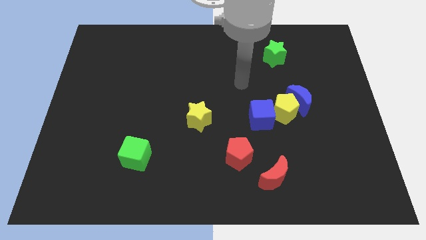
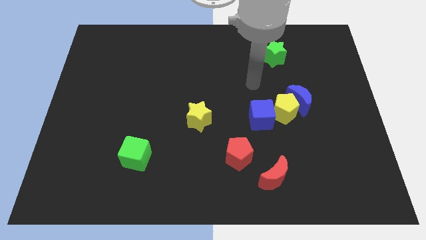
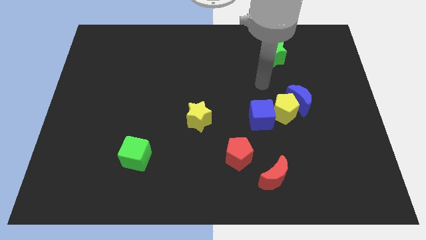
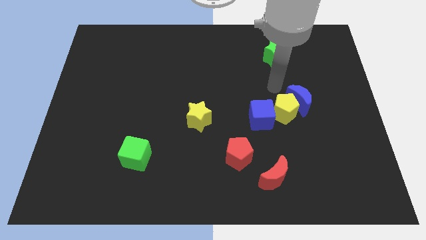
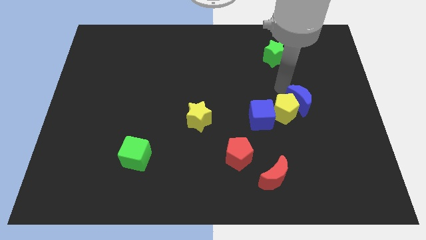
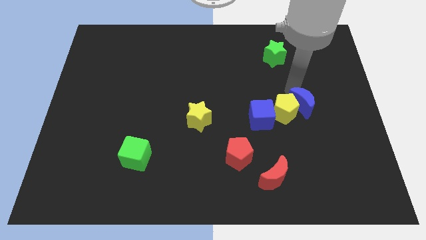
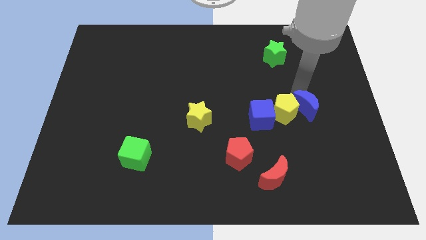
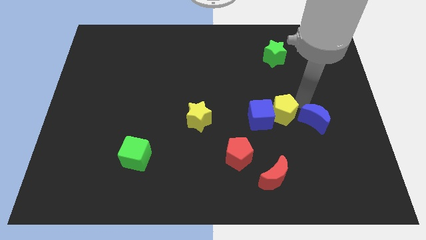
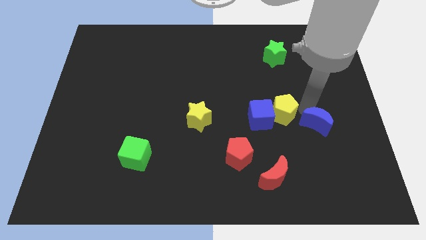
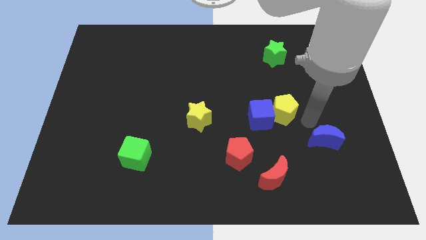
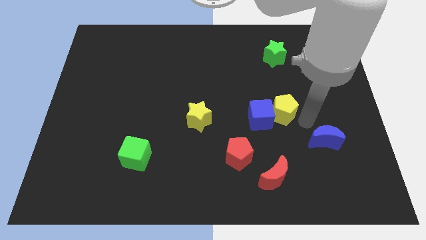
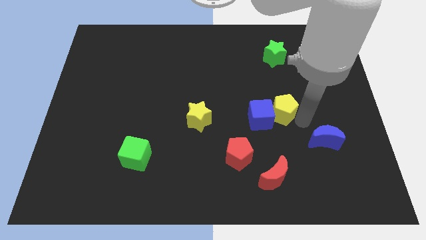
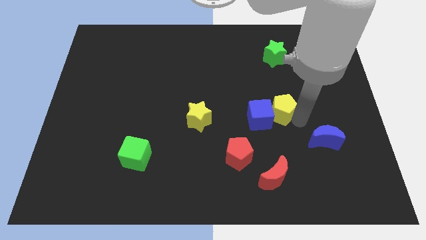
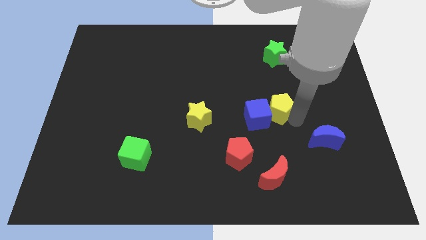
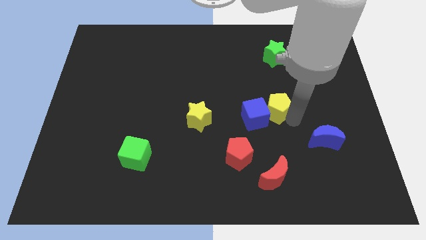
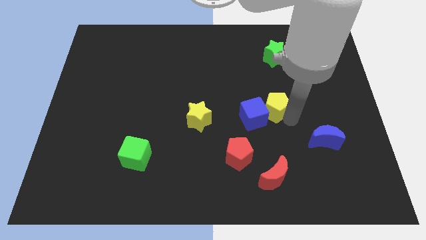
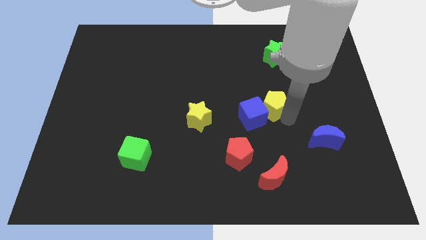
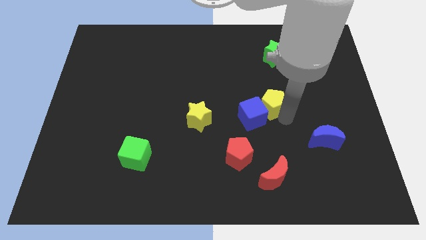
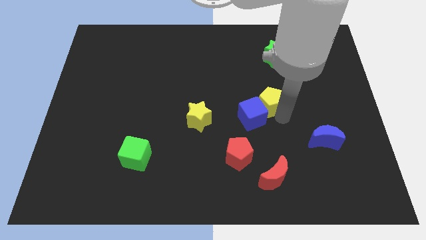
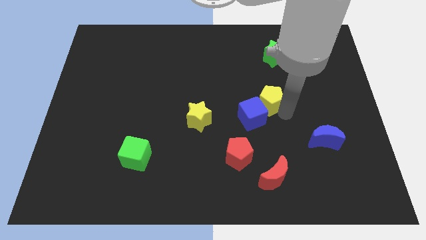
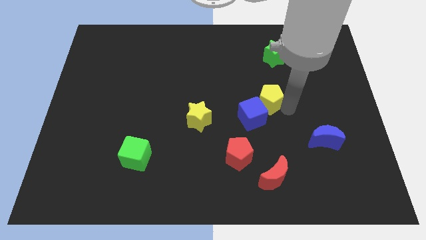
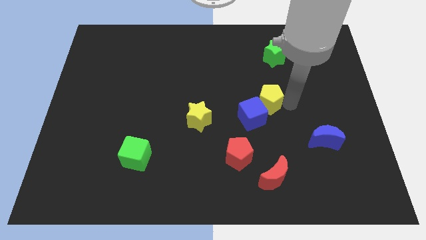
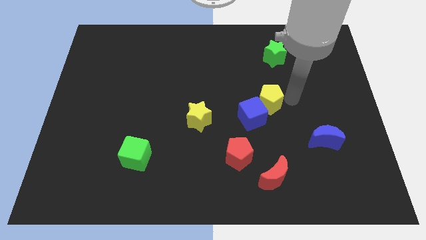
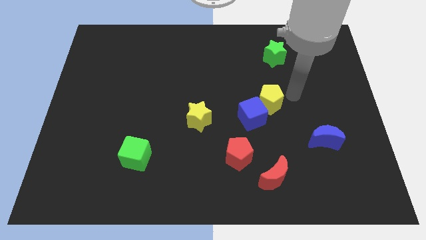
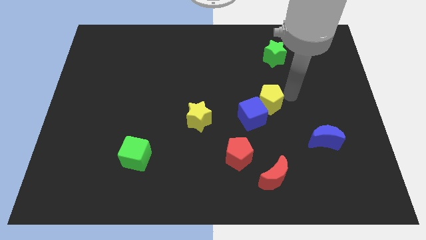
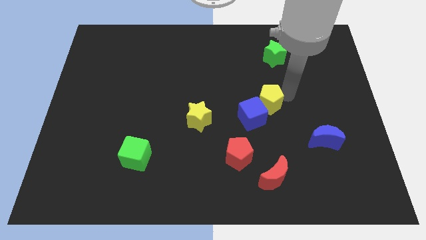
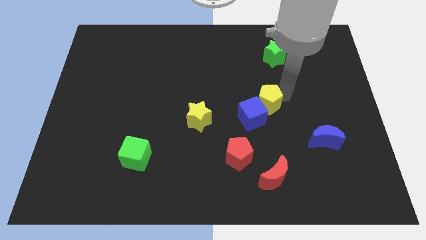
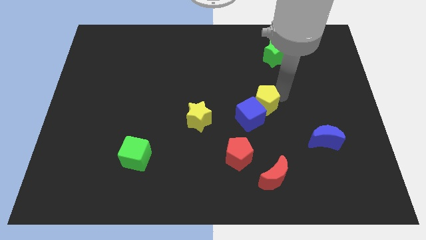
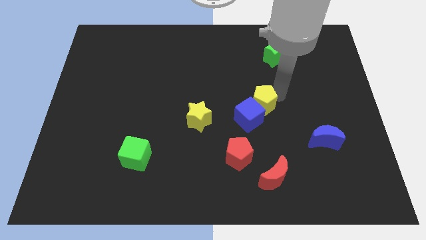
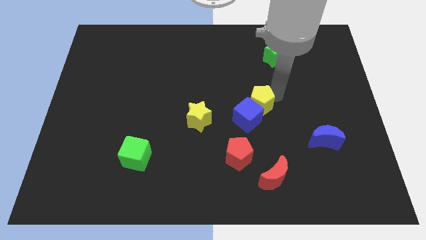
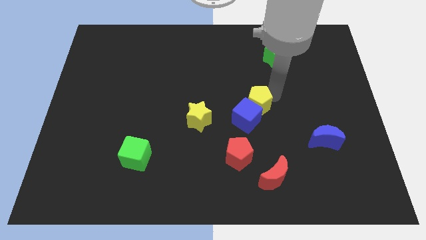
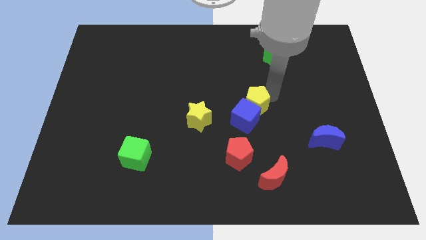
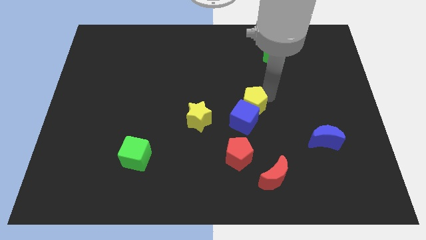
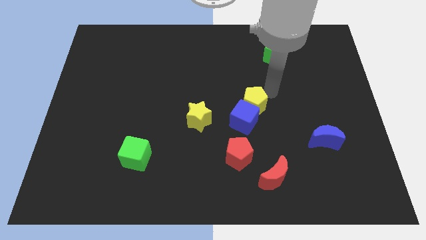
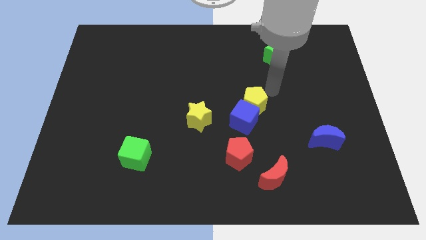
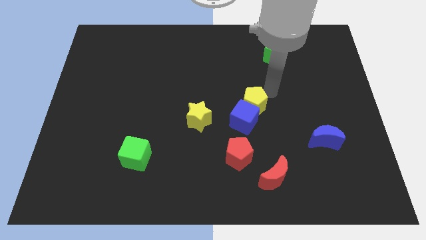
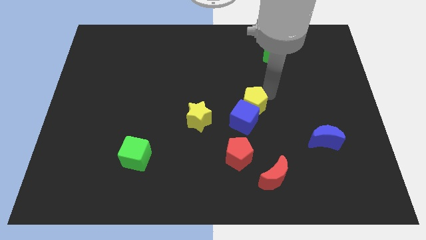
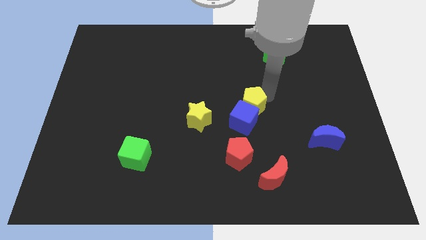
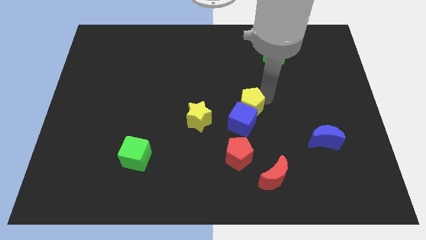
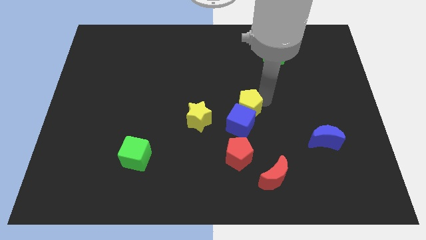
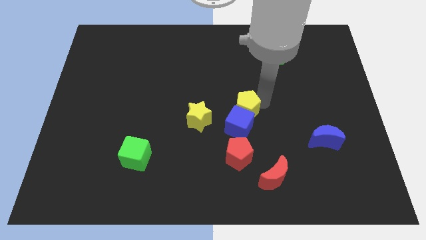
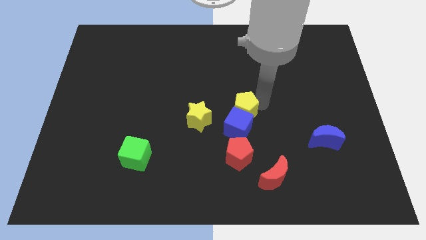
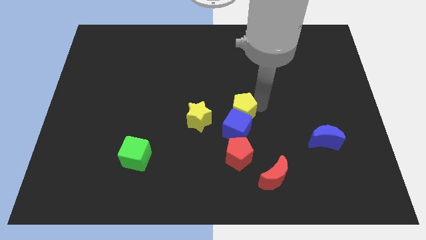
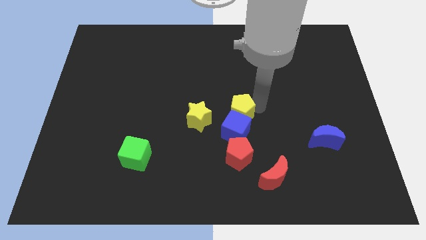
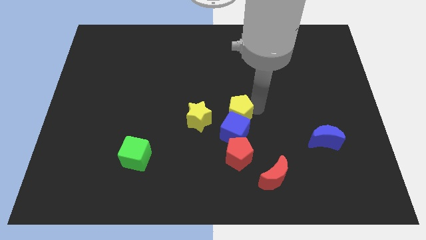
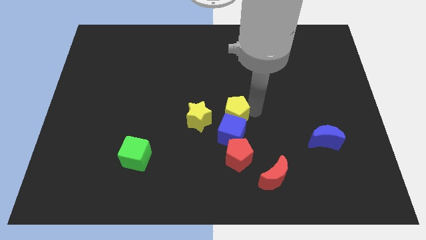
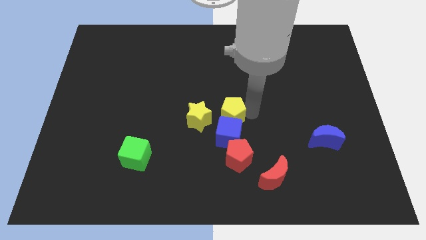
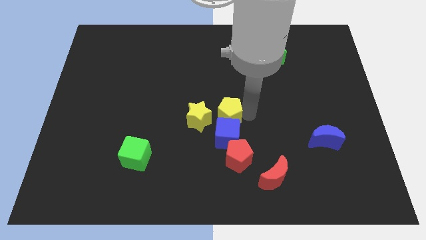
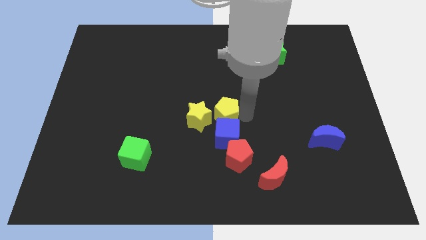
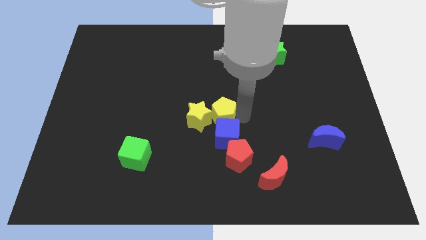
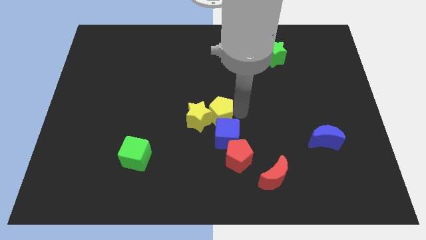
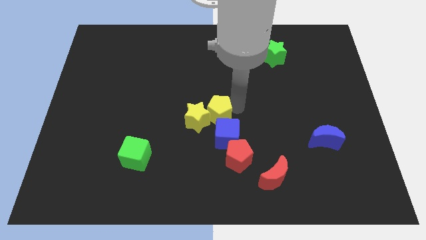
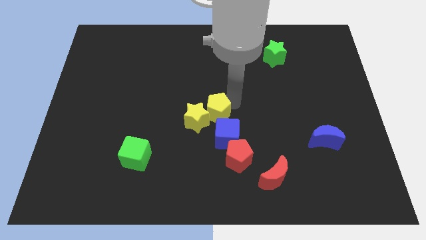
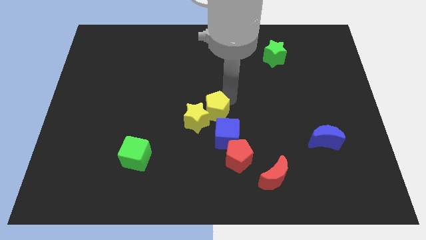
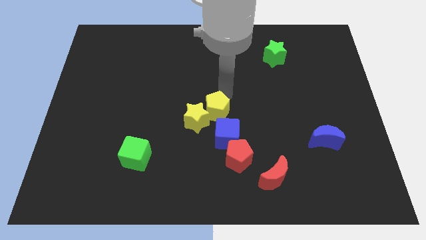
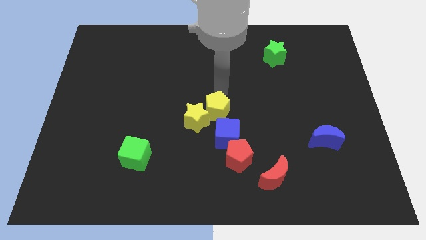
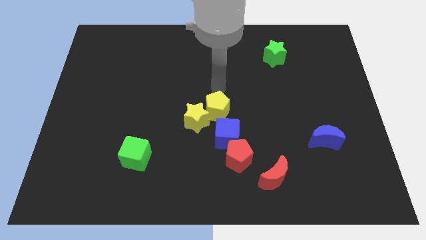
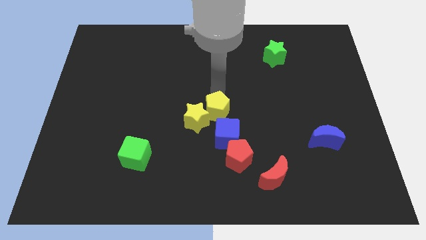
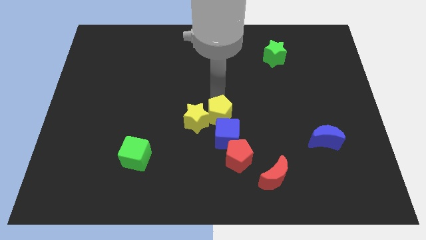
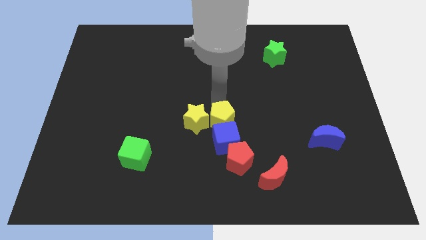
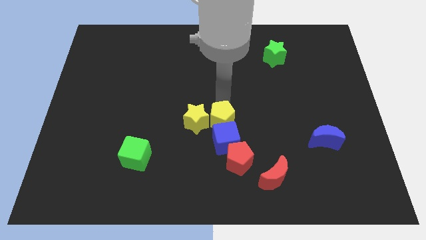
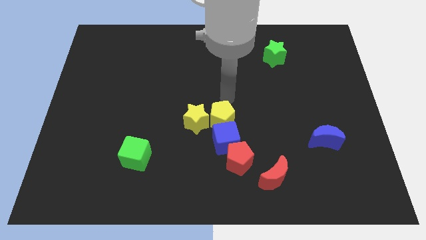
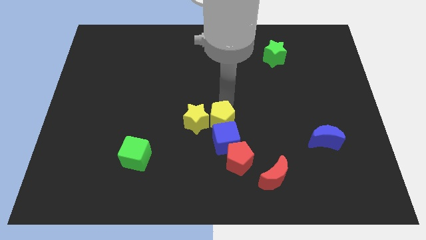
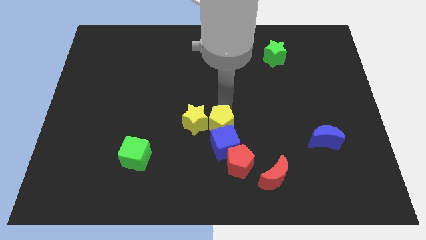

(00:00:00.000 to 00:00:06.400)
slide the yellow pentagon to the top left of the red pentagon
